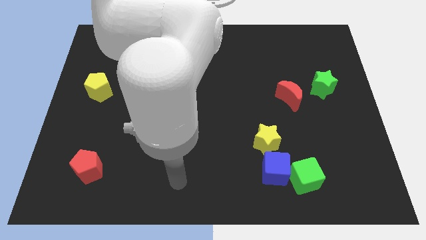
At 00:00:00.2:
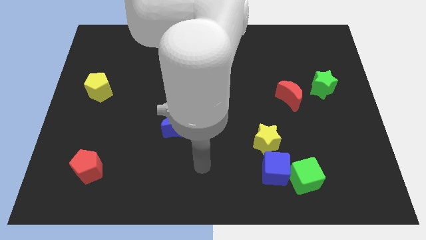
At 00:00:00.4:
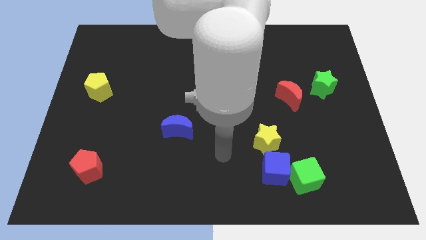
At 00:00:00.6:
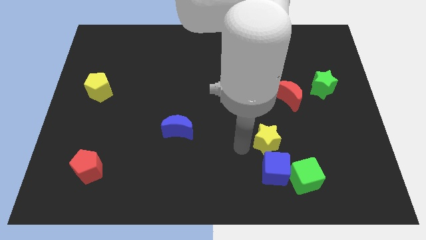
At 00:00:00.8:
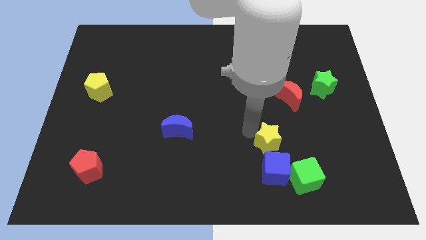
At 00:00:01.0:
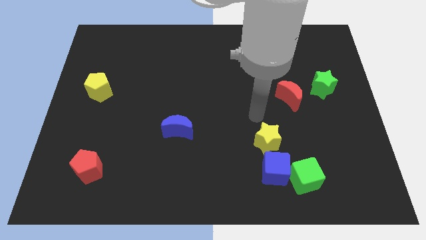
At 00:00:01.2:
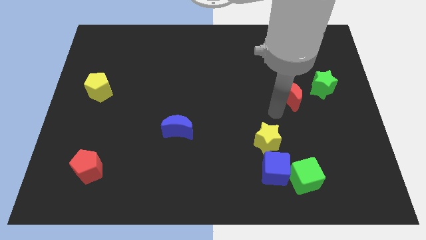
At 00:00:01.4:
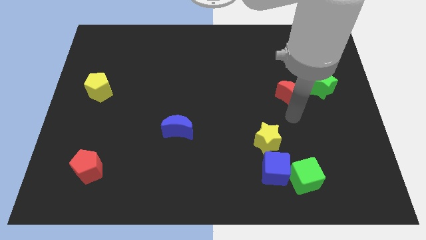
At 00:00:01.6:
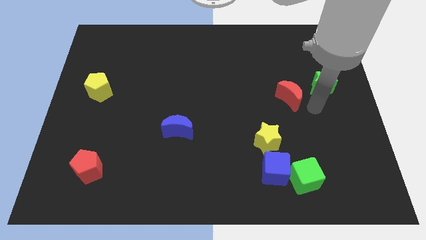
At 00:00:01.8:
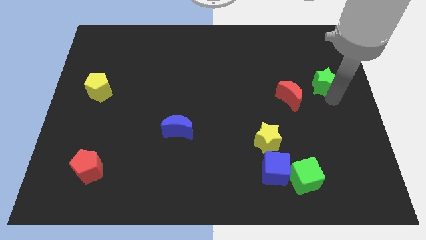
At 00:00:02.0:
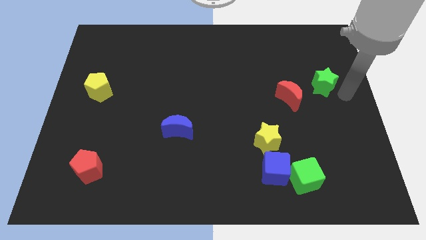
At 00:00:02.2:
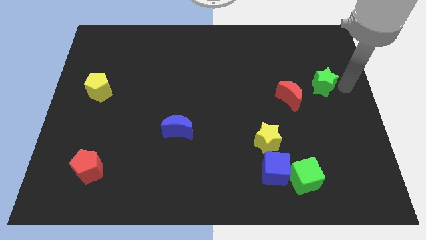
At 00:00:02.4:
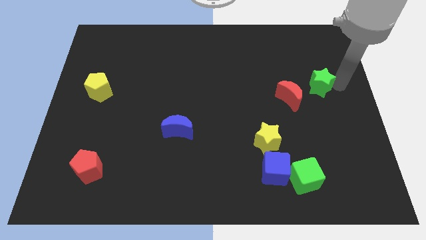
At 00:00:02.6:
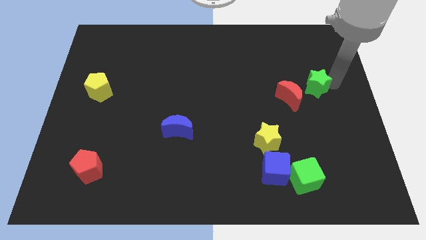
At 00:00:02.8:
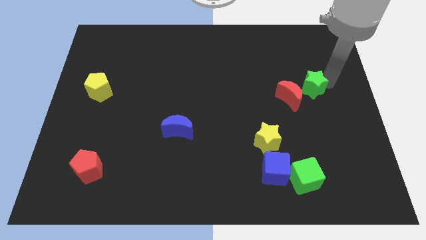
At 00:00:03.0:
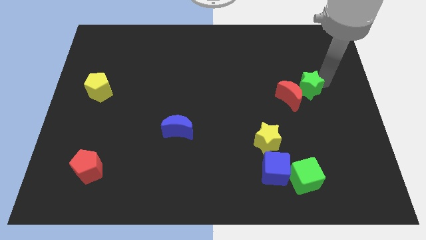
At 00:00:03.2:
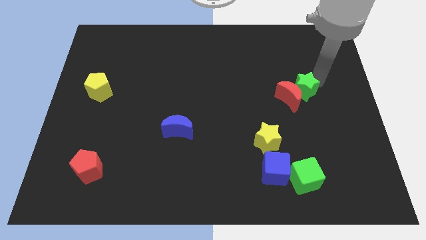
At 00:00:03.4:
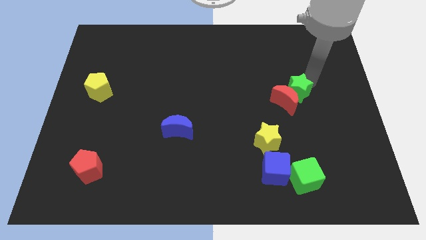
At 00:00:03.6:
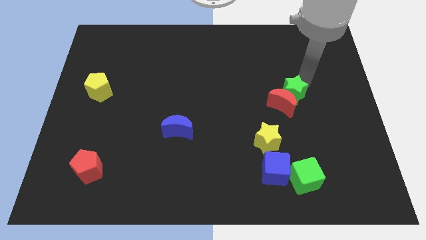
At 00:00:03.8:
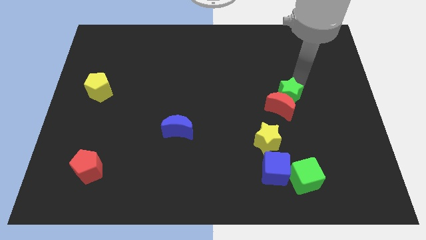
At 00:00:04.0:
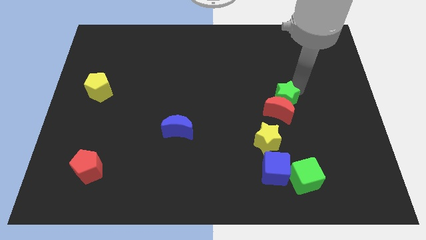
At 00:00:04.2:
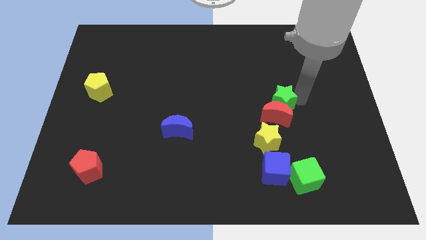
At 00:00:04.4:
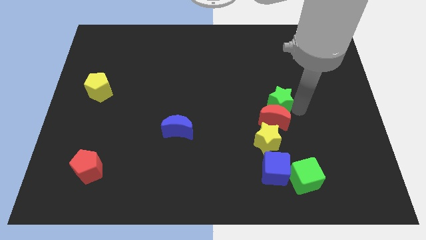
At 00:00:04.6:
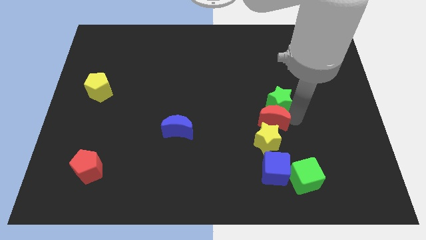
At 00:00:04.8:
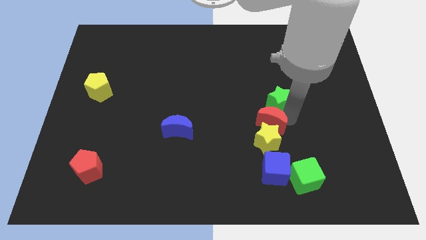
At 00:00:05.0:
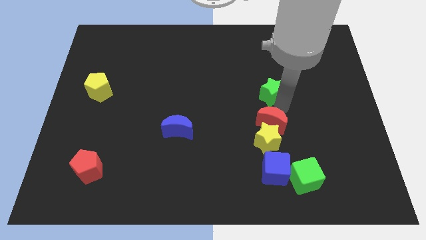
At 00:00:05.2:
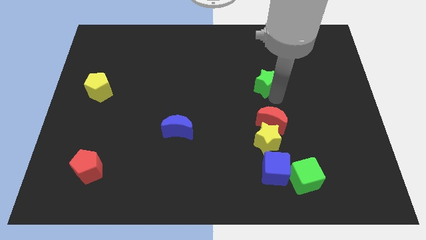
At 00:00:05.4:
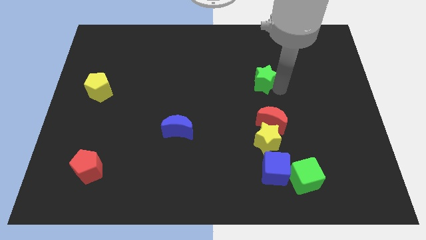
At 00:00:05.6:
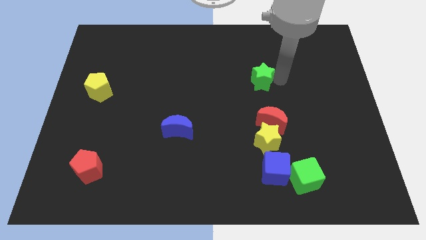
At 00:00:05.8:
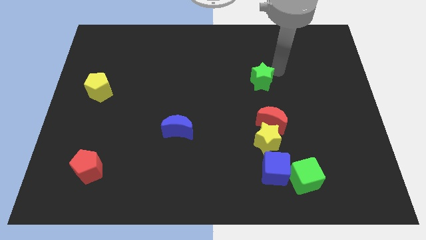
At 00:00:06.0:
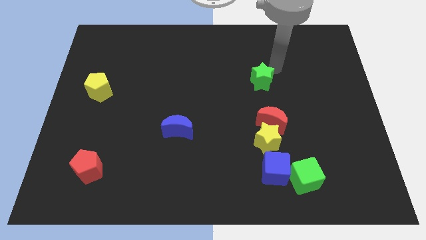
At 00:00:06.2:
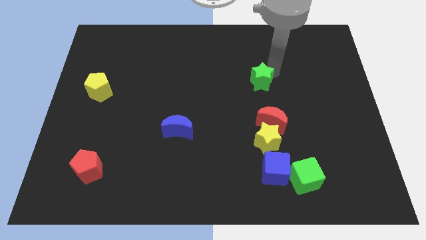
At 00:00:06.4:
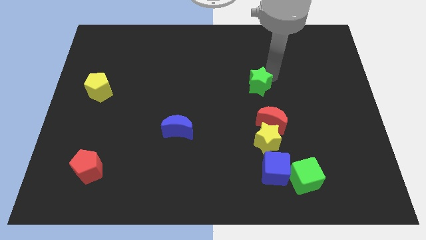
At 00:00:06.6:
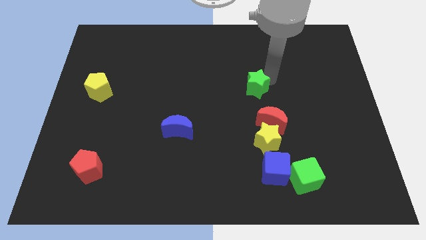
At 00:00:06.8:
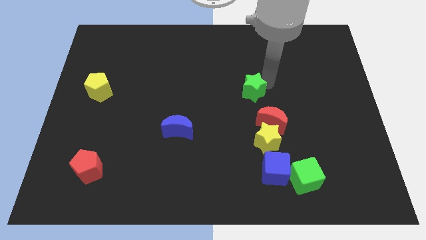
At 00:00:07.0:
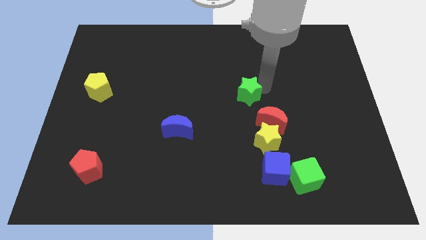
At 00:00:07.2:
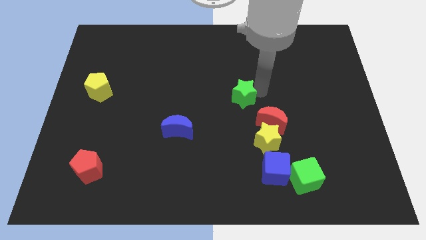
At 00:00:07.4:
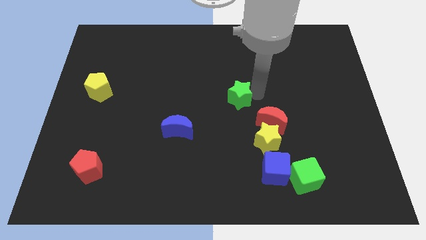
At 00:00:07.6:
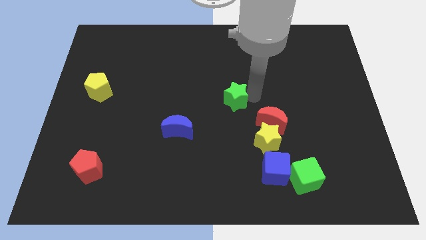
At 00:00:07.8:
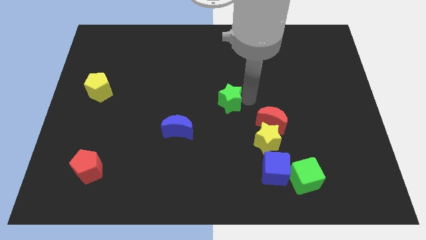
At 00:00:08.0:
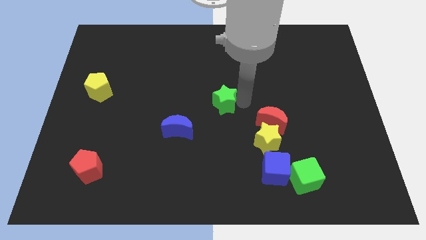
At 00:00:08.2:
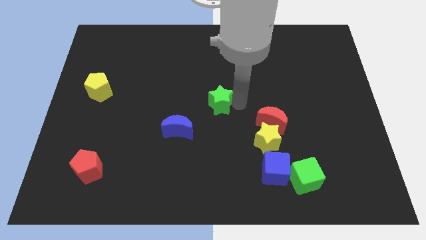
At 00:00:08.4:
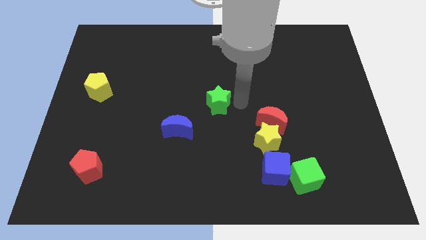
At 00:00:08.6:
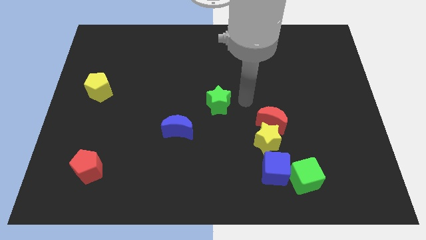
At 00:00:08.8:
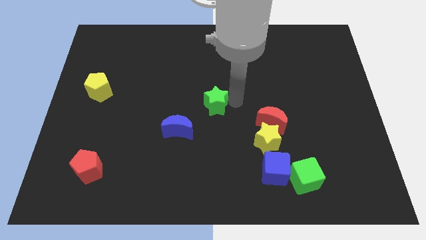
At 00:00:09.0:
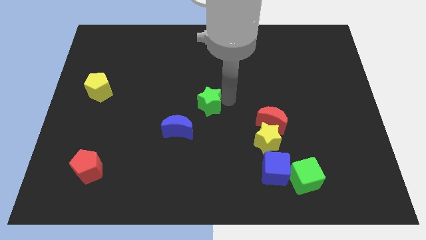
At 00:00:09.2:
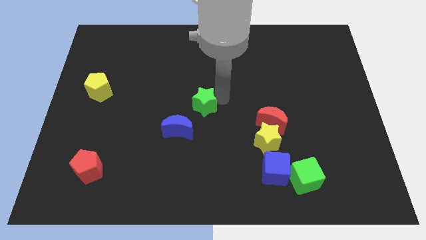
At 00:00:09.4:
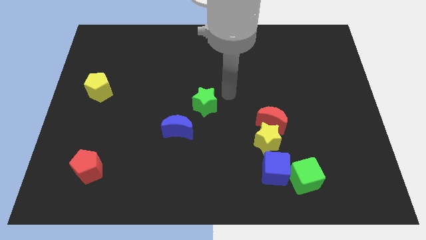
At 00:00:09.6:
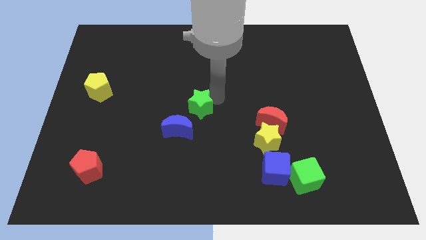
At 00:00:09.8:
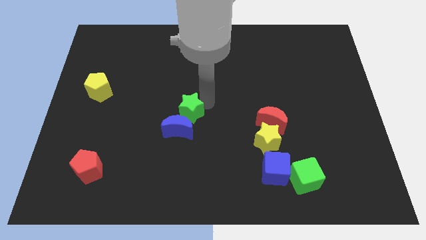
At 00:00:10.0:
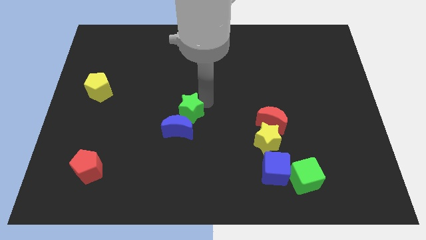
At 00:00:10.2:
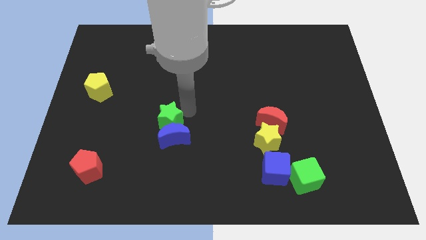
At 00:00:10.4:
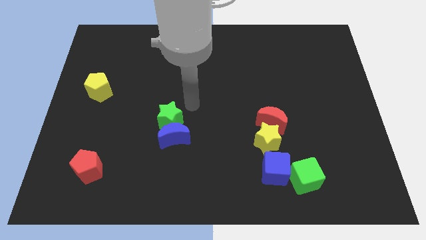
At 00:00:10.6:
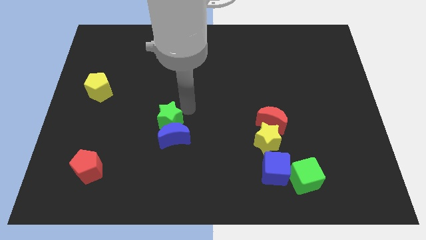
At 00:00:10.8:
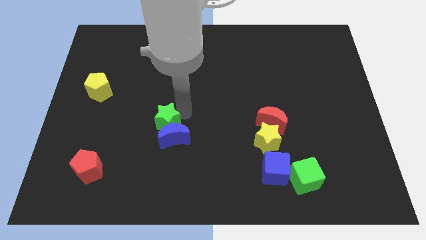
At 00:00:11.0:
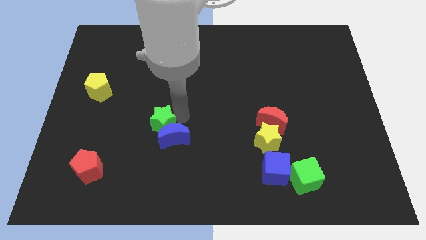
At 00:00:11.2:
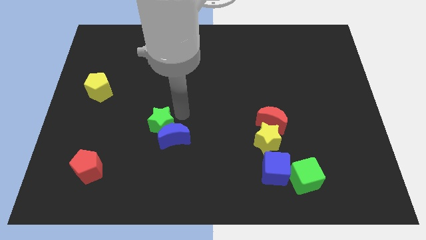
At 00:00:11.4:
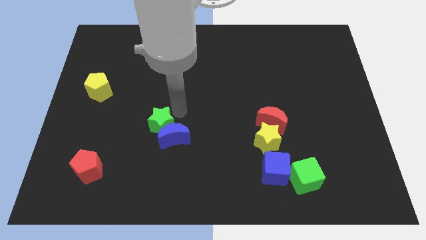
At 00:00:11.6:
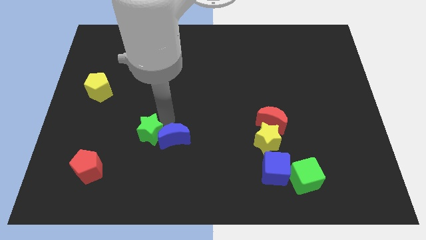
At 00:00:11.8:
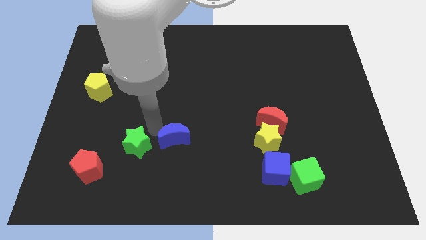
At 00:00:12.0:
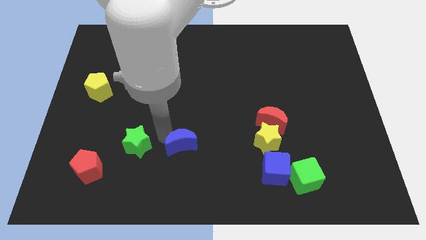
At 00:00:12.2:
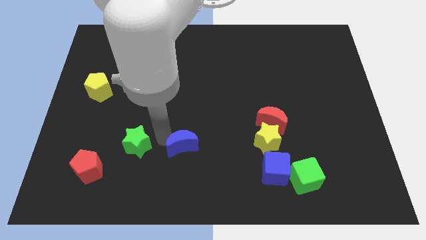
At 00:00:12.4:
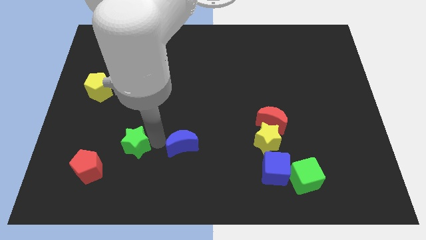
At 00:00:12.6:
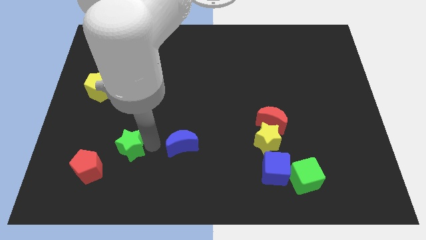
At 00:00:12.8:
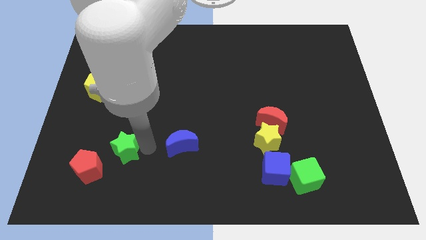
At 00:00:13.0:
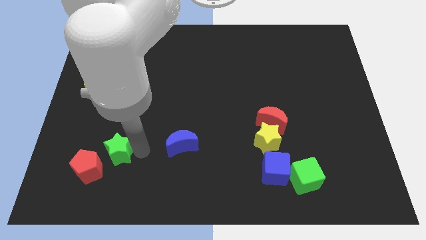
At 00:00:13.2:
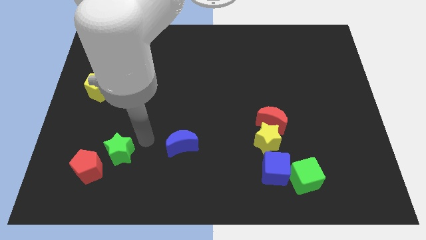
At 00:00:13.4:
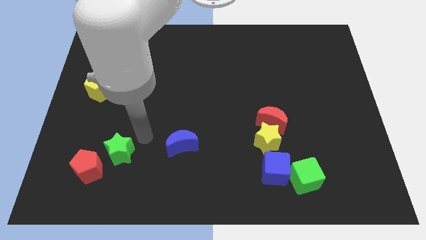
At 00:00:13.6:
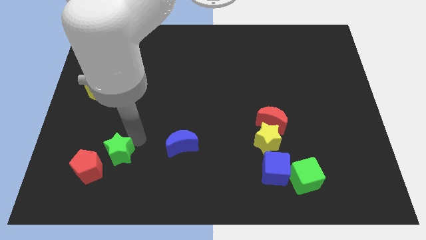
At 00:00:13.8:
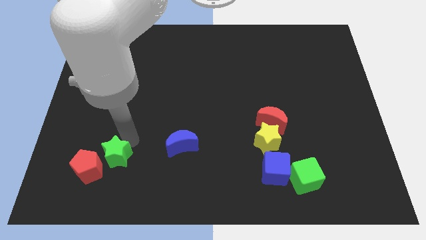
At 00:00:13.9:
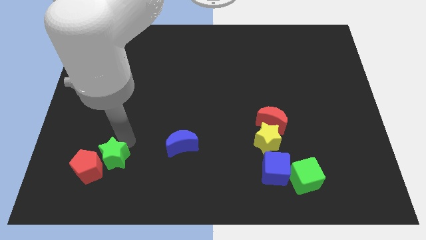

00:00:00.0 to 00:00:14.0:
put the green star towards the red pentagon

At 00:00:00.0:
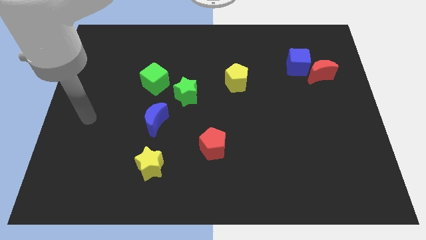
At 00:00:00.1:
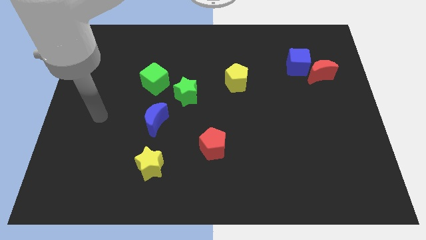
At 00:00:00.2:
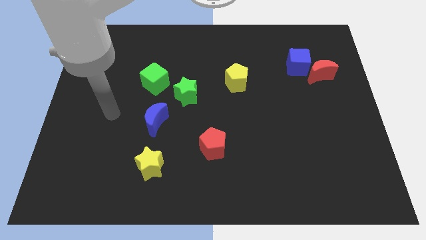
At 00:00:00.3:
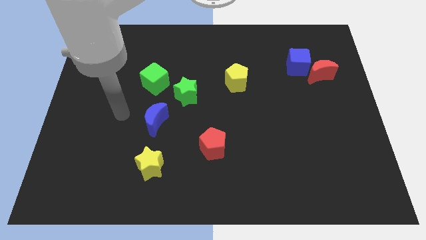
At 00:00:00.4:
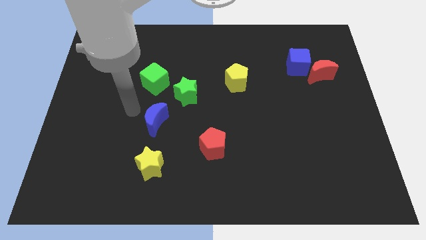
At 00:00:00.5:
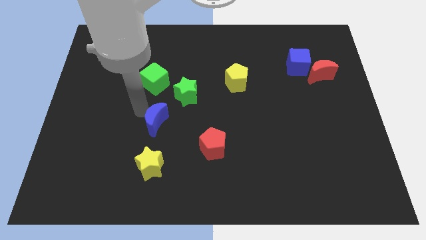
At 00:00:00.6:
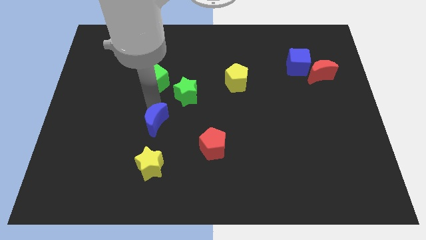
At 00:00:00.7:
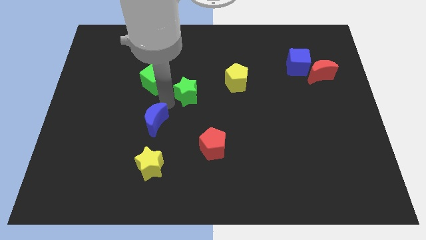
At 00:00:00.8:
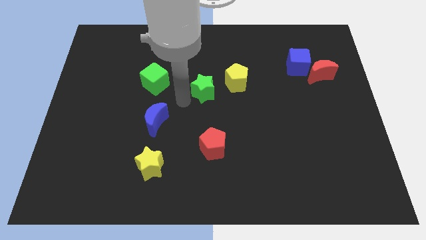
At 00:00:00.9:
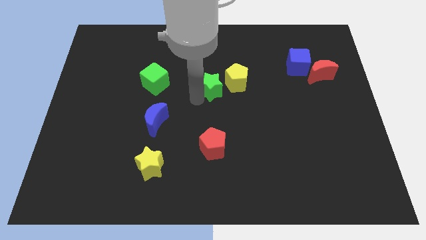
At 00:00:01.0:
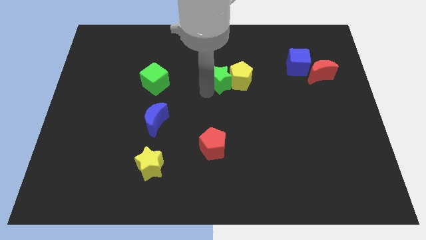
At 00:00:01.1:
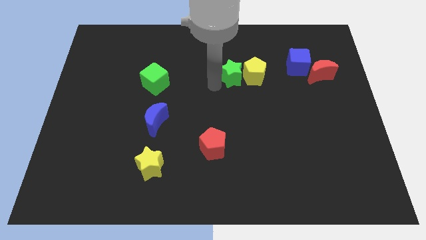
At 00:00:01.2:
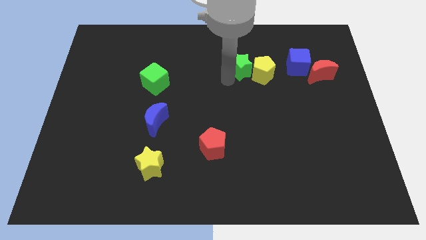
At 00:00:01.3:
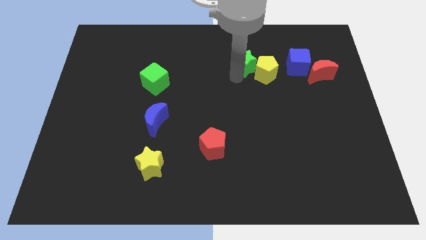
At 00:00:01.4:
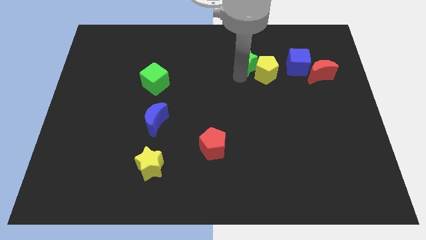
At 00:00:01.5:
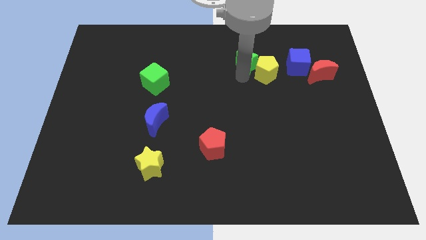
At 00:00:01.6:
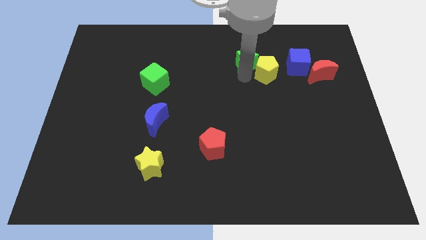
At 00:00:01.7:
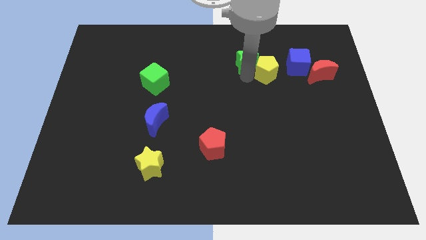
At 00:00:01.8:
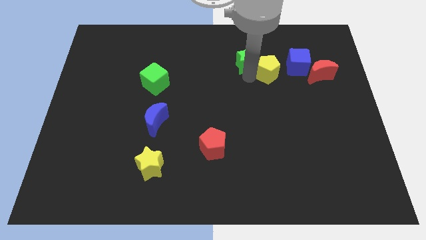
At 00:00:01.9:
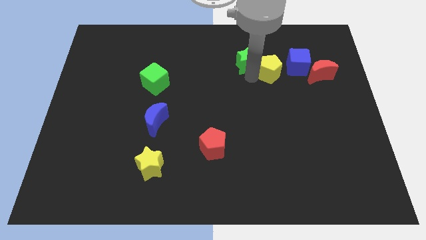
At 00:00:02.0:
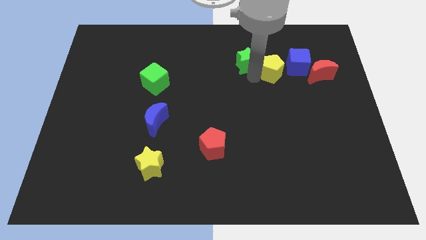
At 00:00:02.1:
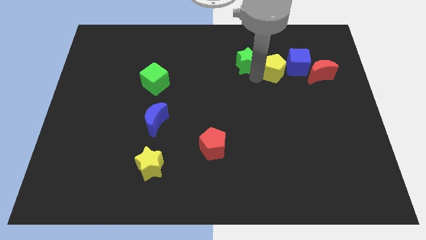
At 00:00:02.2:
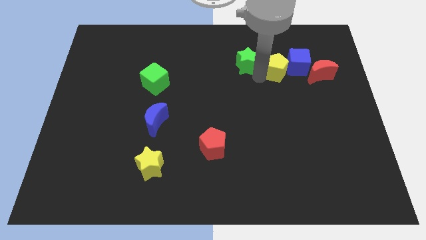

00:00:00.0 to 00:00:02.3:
push the yellow pentagon close to the blue cube
